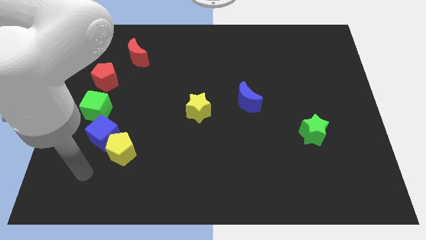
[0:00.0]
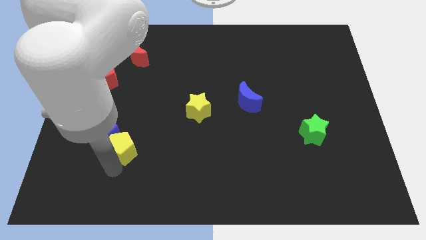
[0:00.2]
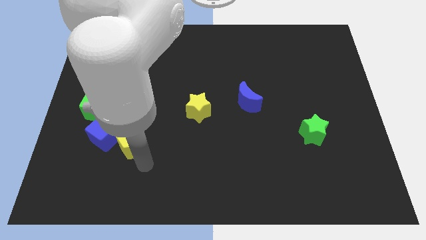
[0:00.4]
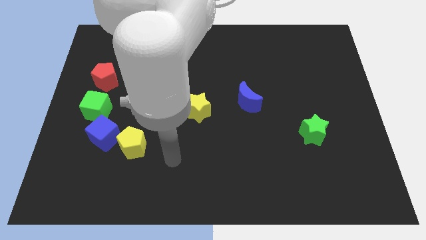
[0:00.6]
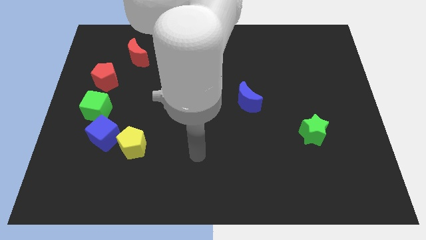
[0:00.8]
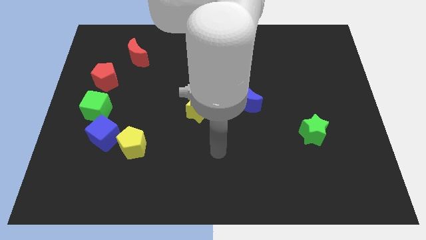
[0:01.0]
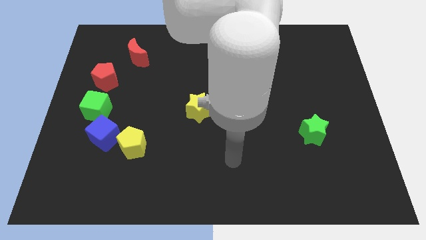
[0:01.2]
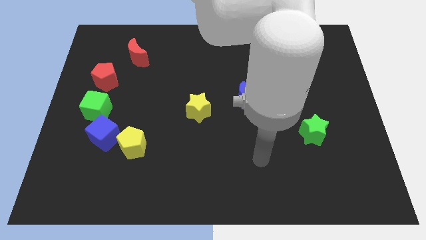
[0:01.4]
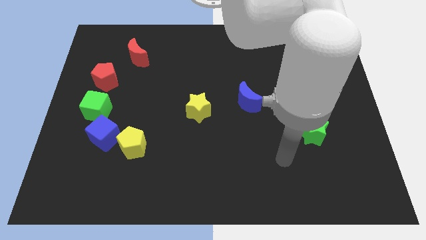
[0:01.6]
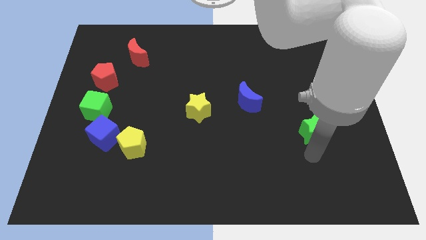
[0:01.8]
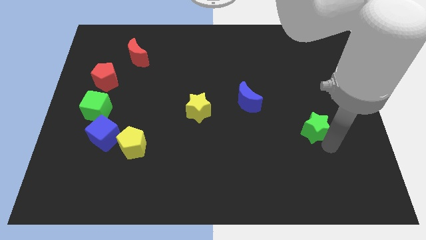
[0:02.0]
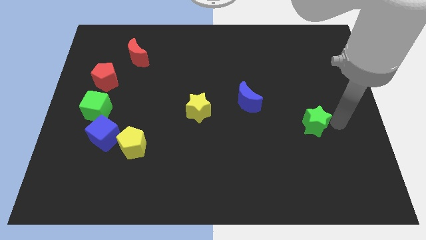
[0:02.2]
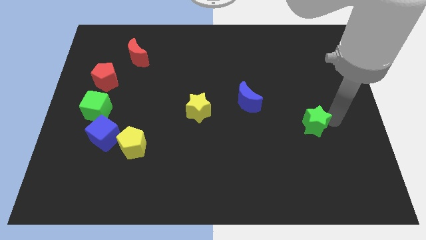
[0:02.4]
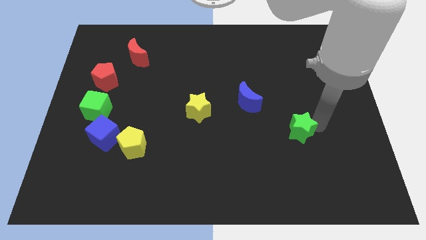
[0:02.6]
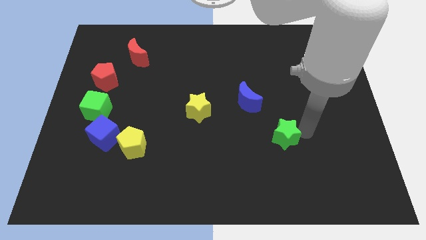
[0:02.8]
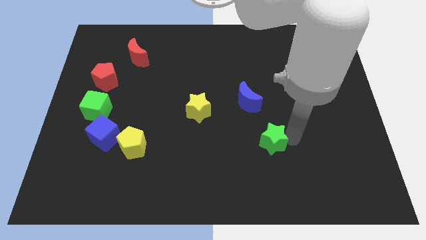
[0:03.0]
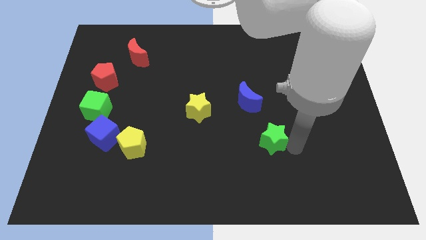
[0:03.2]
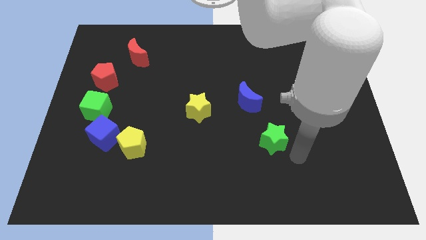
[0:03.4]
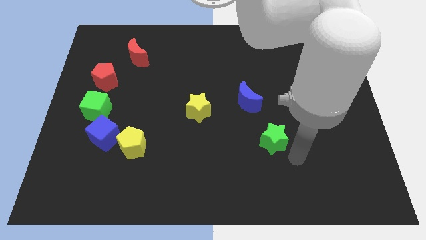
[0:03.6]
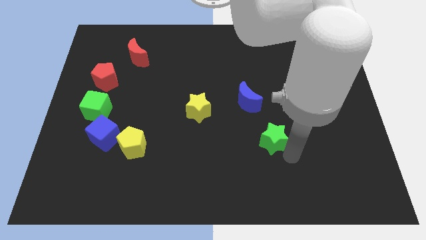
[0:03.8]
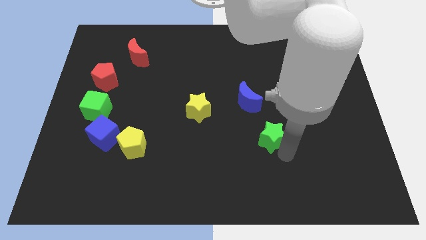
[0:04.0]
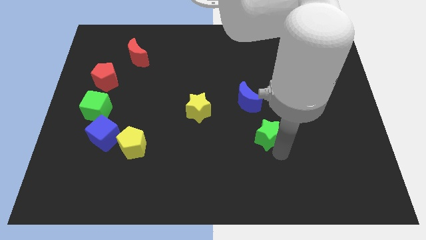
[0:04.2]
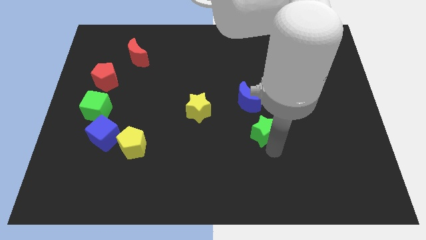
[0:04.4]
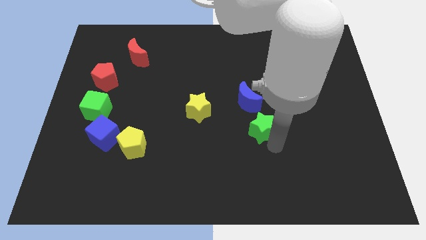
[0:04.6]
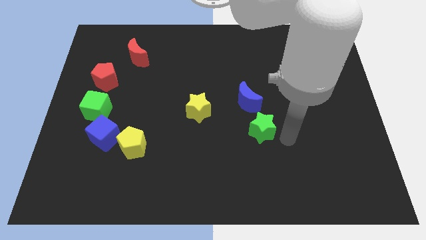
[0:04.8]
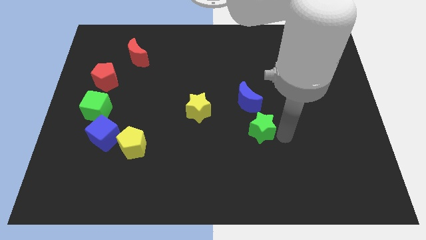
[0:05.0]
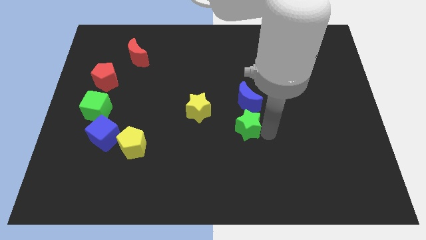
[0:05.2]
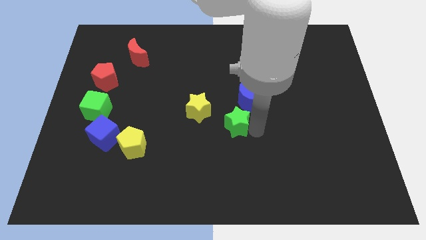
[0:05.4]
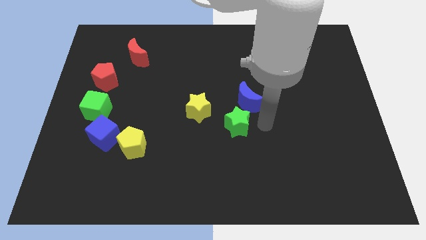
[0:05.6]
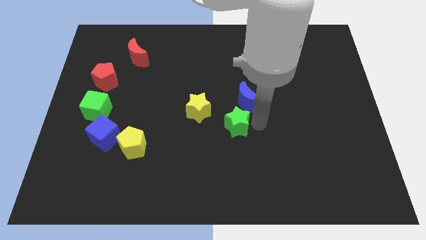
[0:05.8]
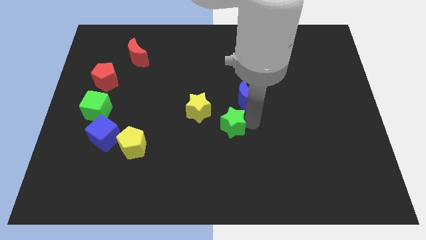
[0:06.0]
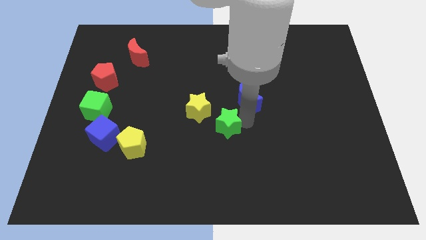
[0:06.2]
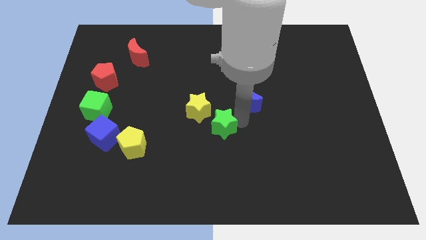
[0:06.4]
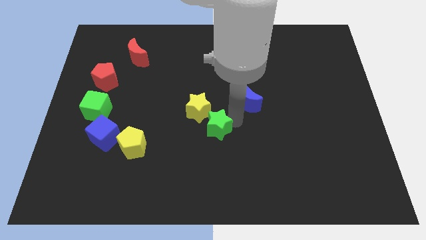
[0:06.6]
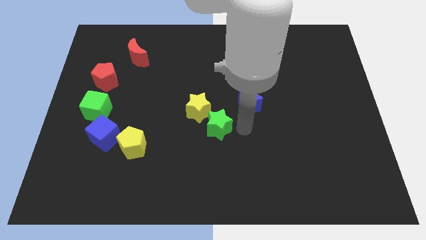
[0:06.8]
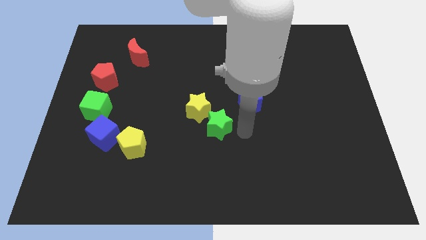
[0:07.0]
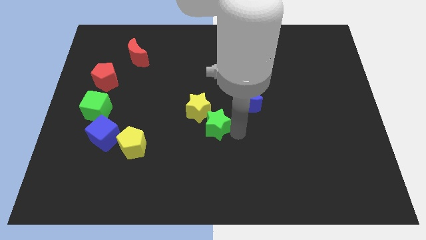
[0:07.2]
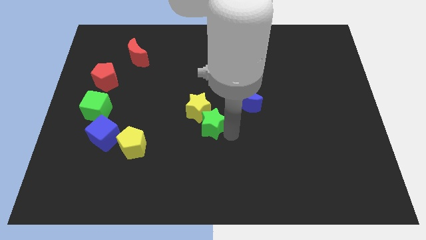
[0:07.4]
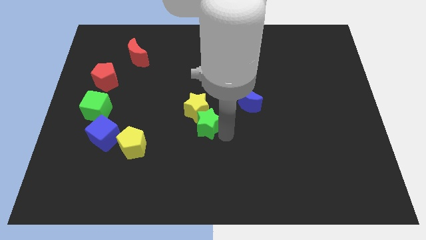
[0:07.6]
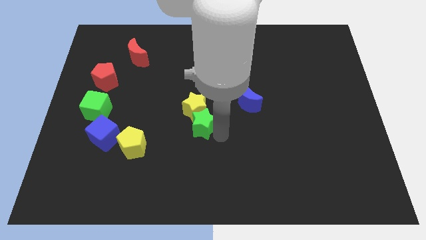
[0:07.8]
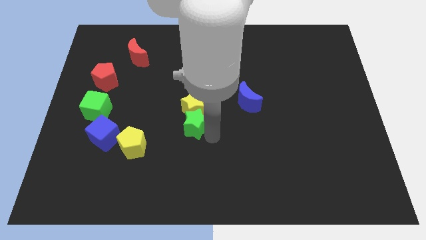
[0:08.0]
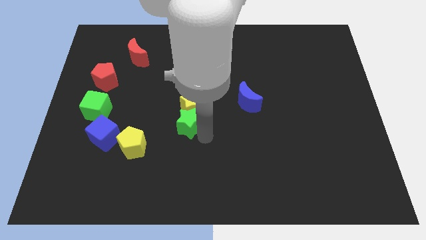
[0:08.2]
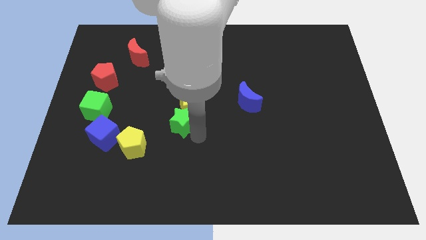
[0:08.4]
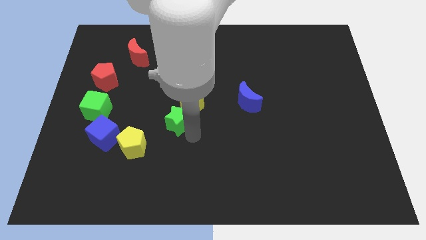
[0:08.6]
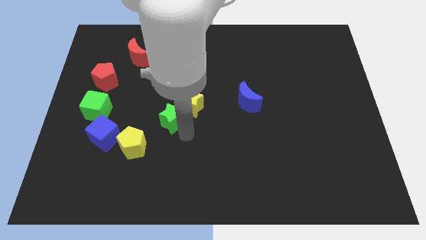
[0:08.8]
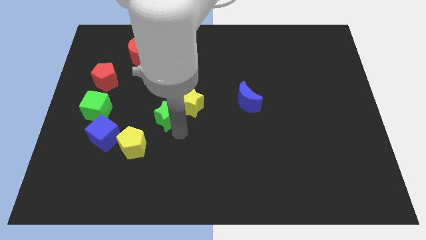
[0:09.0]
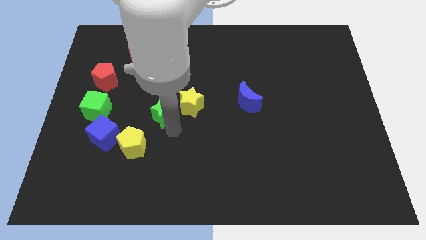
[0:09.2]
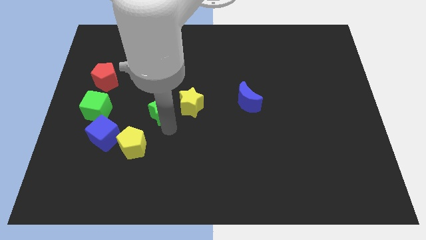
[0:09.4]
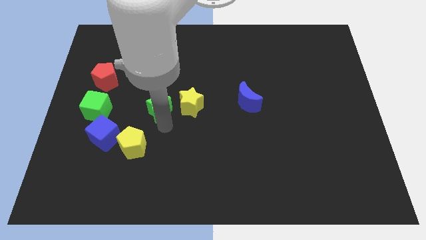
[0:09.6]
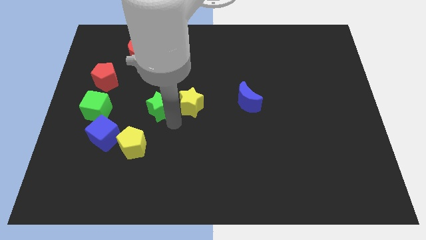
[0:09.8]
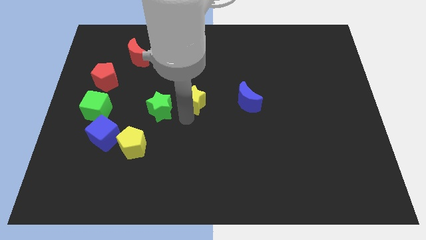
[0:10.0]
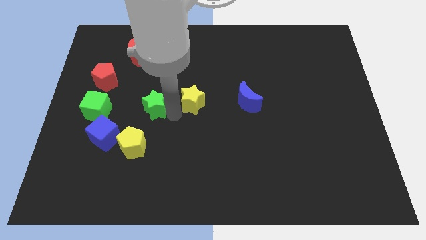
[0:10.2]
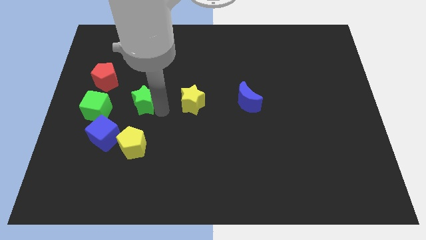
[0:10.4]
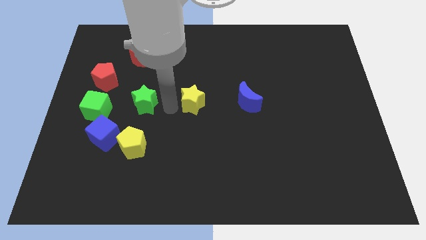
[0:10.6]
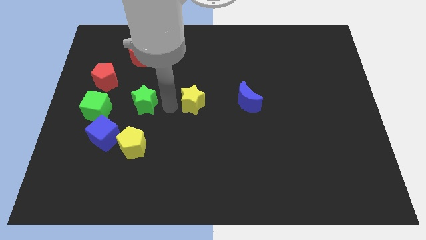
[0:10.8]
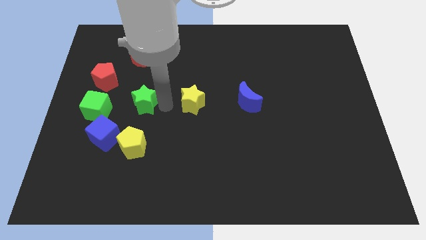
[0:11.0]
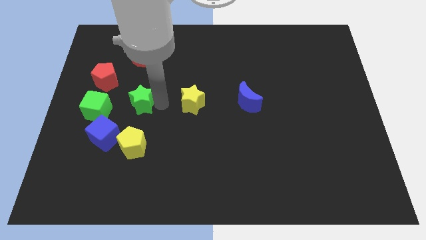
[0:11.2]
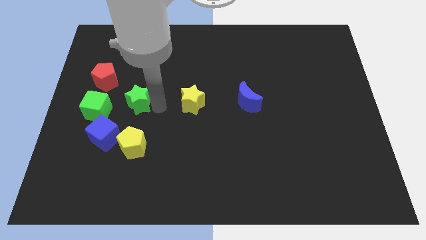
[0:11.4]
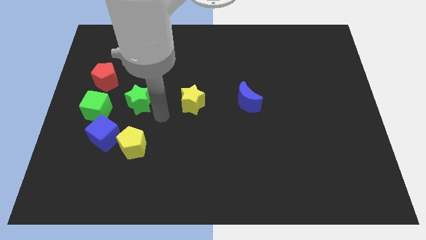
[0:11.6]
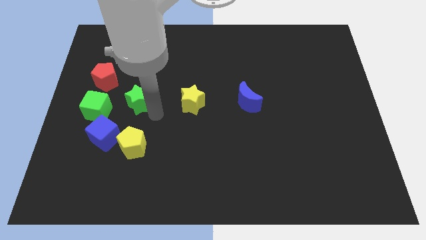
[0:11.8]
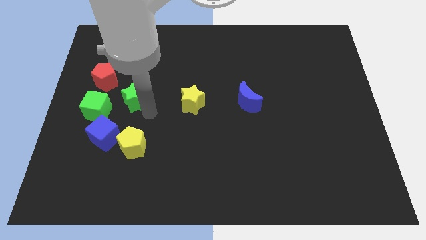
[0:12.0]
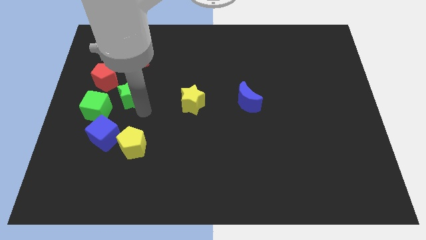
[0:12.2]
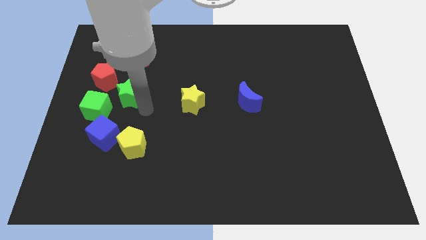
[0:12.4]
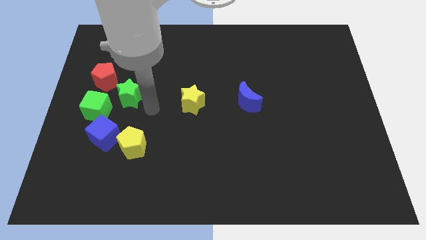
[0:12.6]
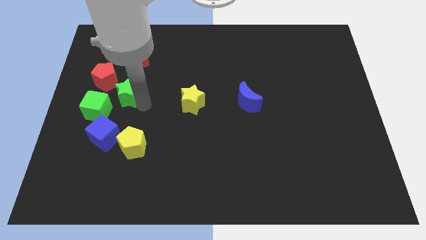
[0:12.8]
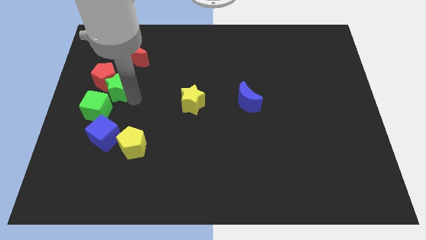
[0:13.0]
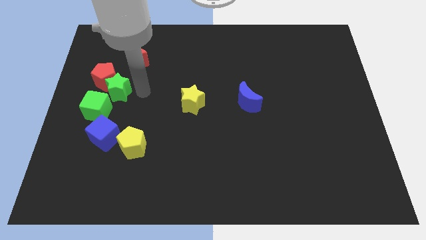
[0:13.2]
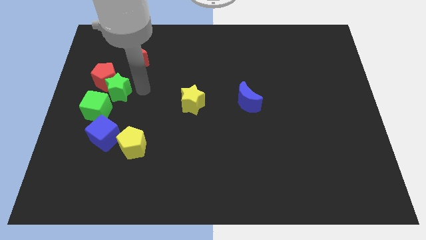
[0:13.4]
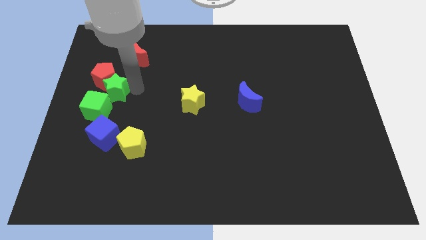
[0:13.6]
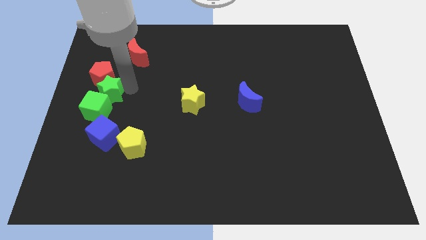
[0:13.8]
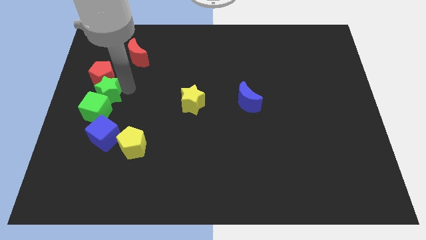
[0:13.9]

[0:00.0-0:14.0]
move the green star to the left side of the board

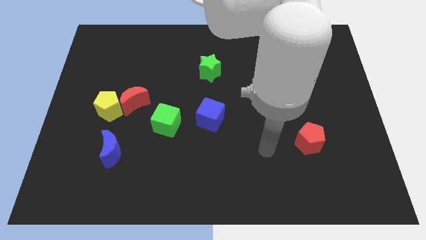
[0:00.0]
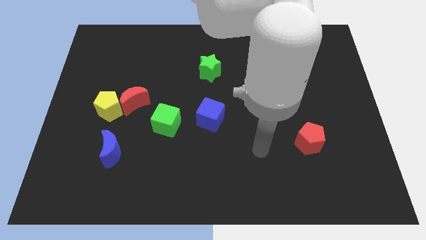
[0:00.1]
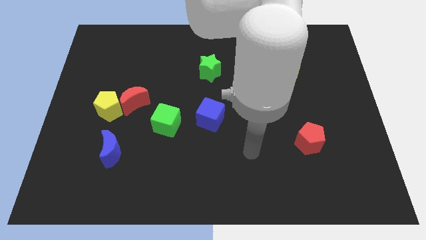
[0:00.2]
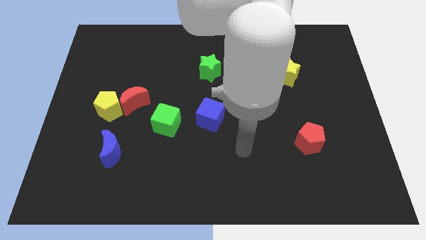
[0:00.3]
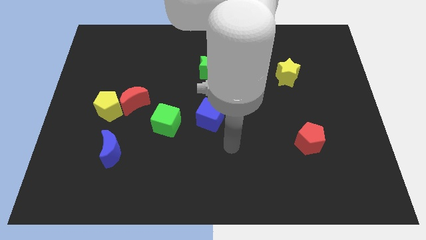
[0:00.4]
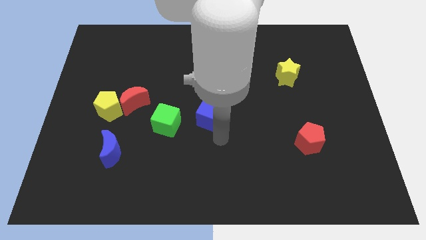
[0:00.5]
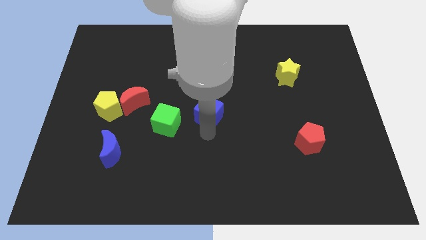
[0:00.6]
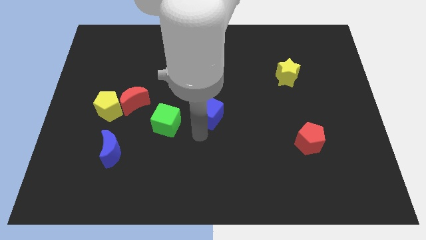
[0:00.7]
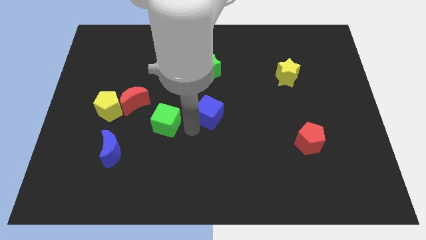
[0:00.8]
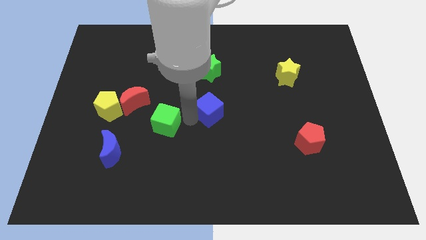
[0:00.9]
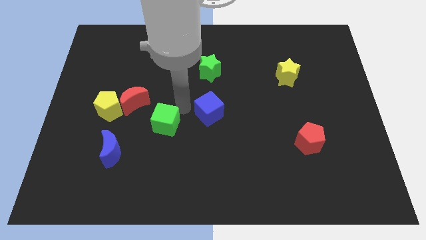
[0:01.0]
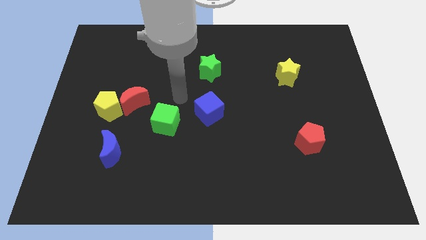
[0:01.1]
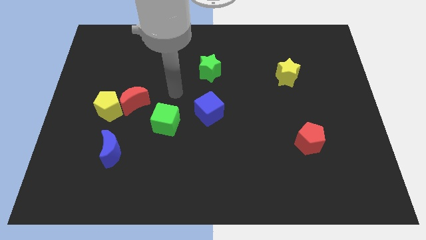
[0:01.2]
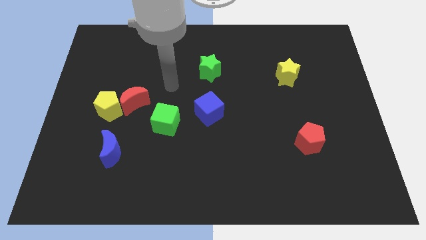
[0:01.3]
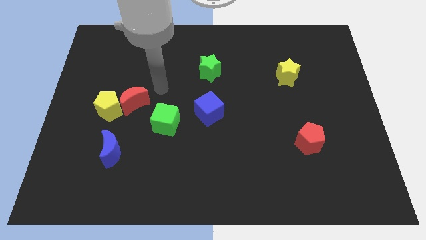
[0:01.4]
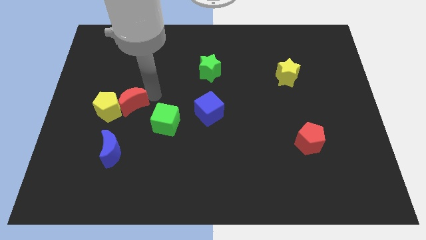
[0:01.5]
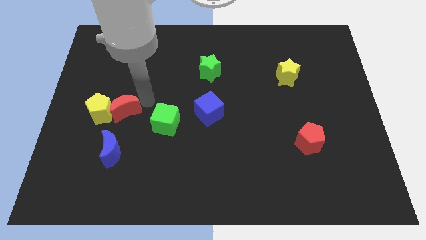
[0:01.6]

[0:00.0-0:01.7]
move the yellow pentagon to the left side of the board
